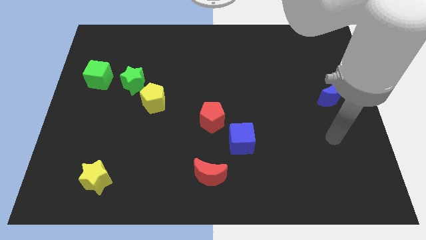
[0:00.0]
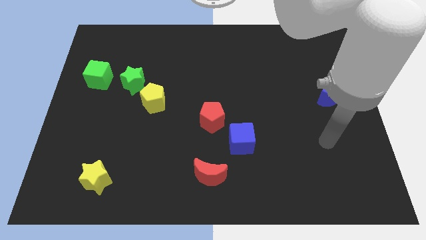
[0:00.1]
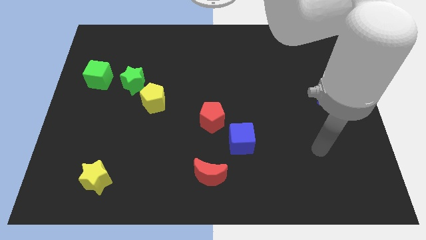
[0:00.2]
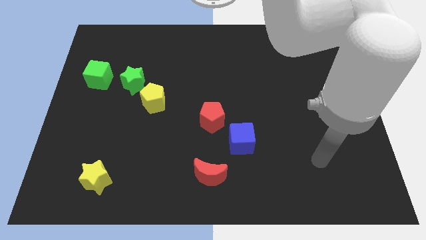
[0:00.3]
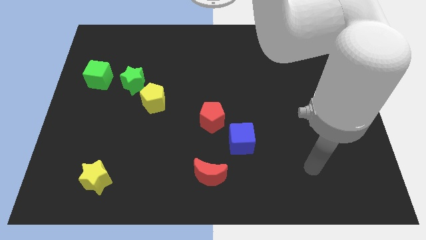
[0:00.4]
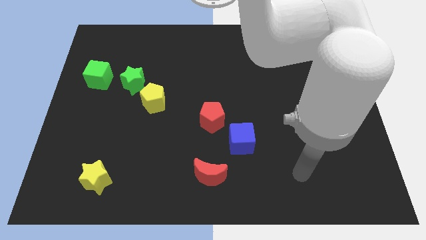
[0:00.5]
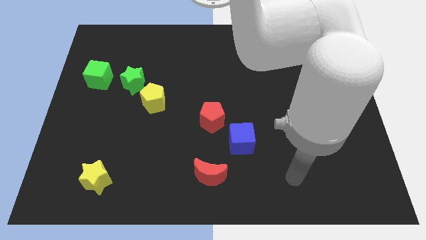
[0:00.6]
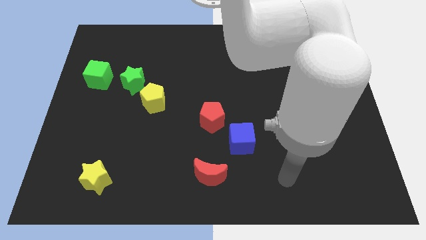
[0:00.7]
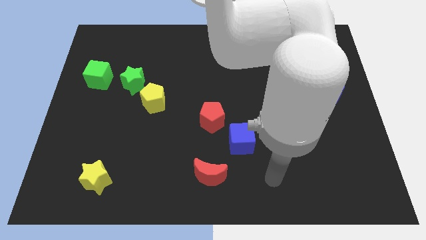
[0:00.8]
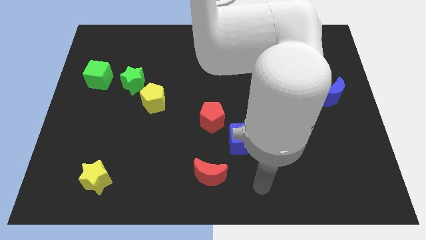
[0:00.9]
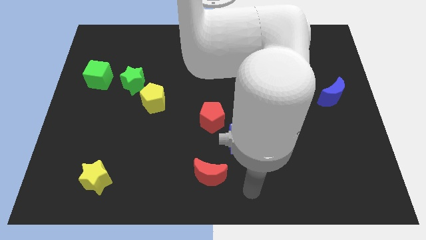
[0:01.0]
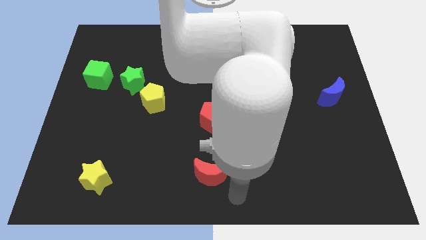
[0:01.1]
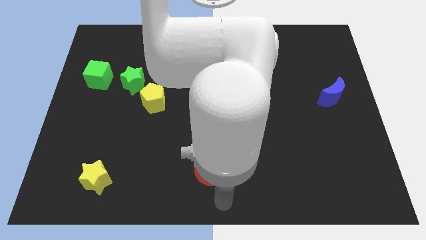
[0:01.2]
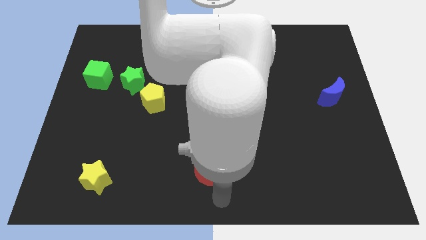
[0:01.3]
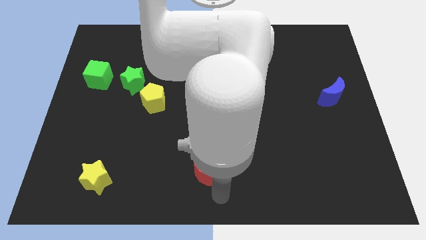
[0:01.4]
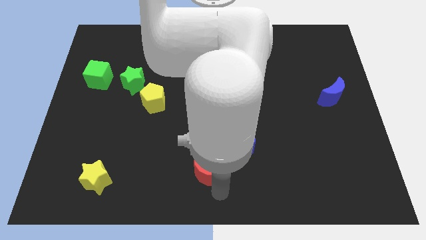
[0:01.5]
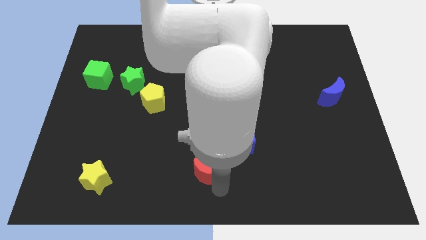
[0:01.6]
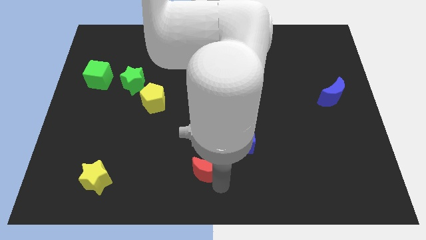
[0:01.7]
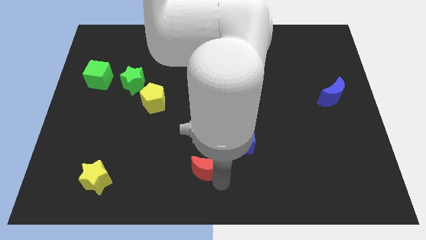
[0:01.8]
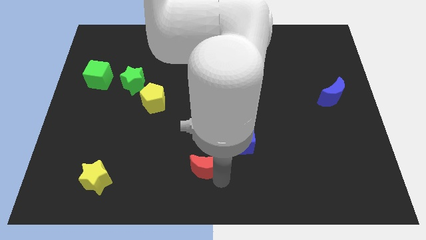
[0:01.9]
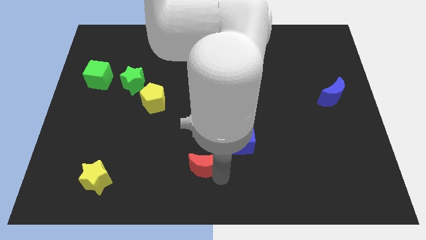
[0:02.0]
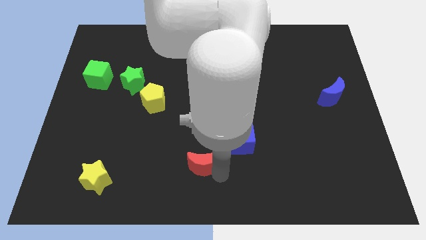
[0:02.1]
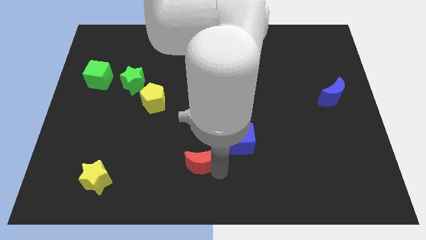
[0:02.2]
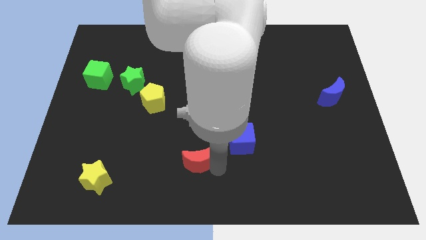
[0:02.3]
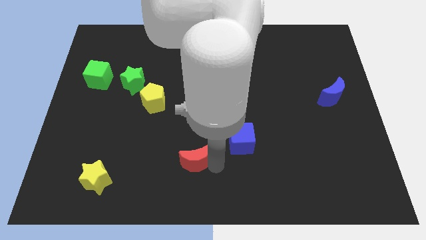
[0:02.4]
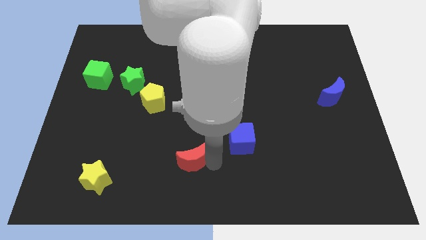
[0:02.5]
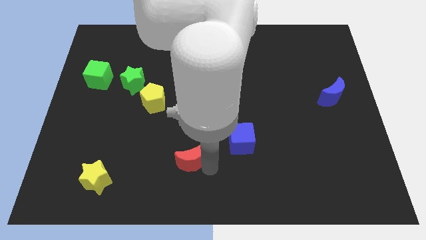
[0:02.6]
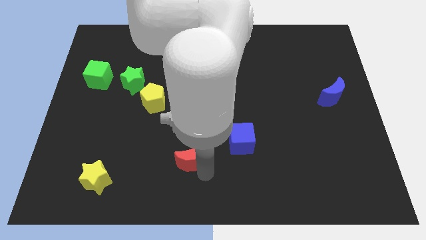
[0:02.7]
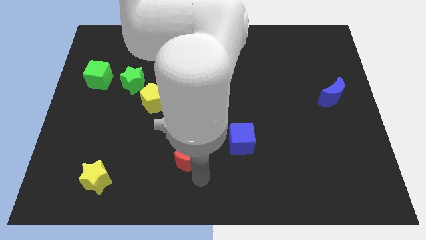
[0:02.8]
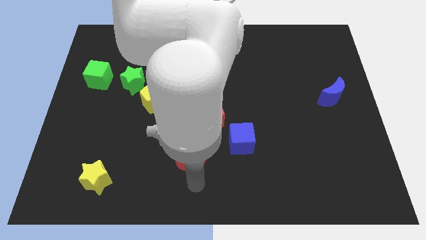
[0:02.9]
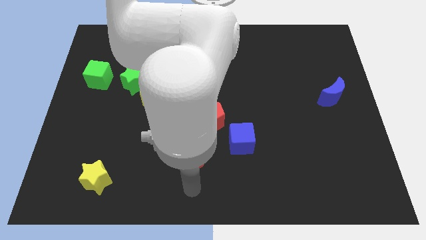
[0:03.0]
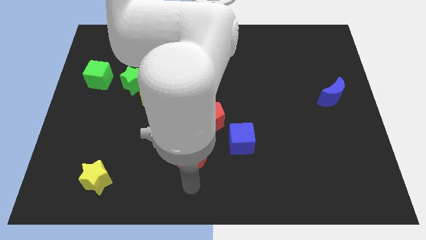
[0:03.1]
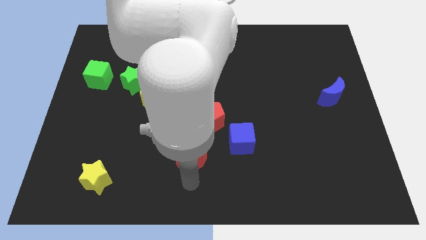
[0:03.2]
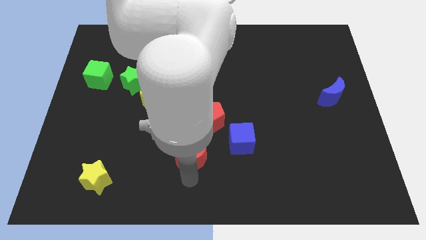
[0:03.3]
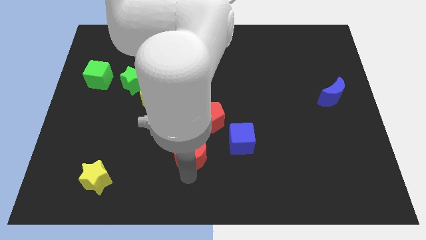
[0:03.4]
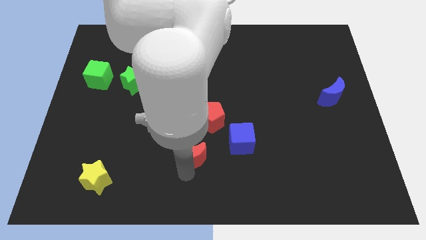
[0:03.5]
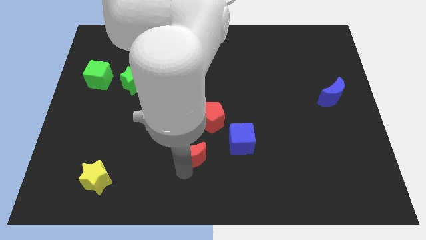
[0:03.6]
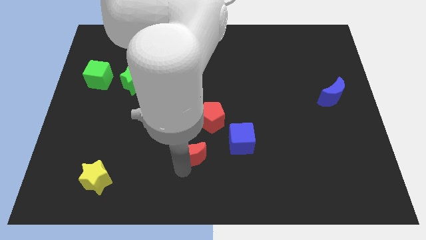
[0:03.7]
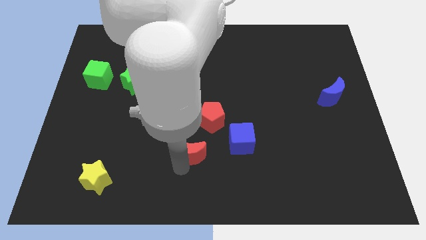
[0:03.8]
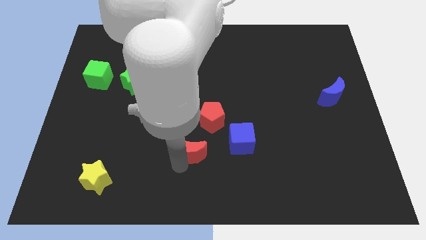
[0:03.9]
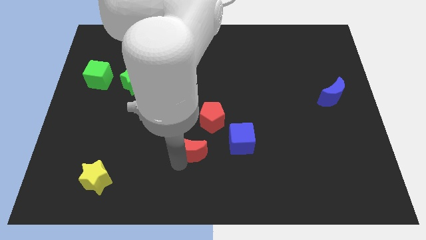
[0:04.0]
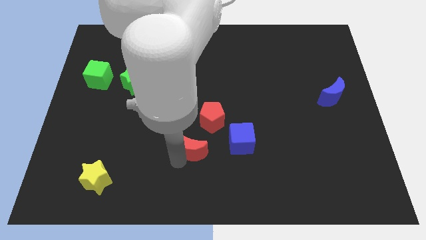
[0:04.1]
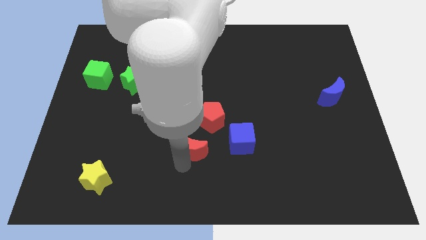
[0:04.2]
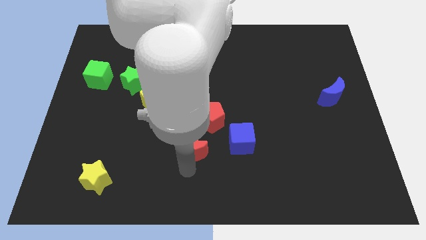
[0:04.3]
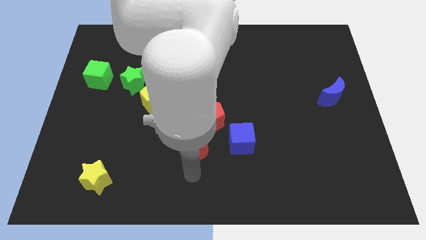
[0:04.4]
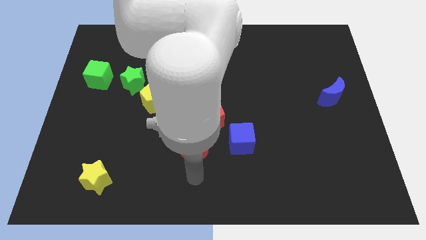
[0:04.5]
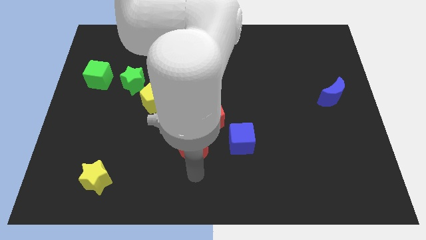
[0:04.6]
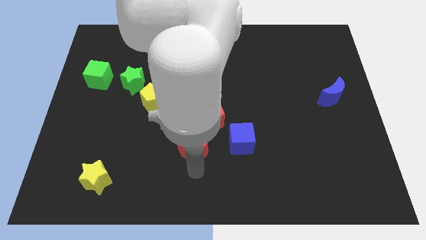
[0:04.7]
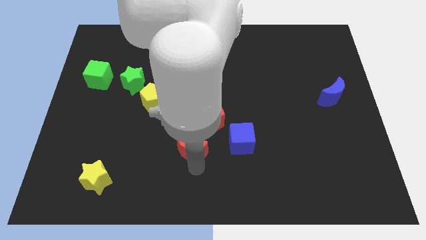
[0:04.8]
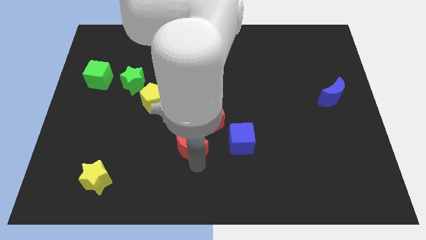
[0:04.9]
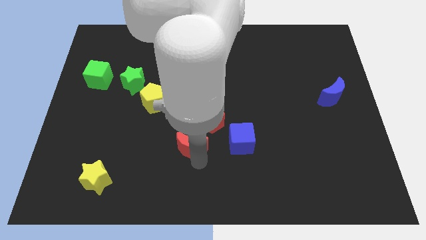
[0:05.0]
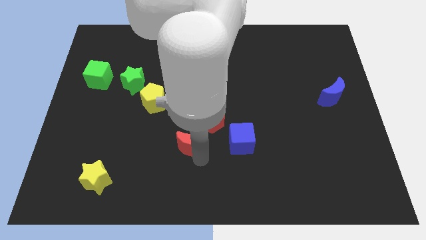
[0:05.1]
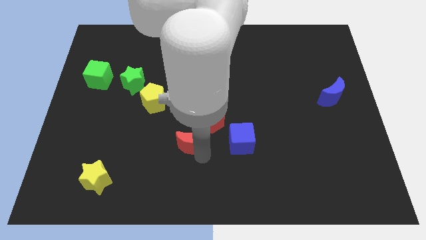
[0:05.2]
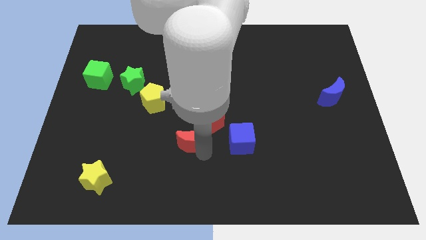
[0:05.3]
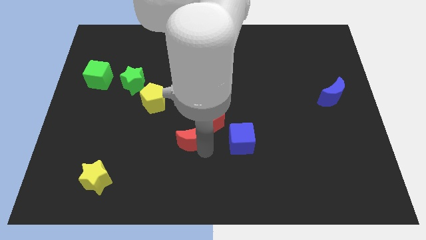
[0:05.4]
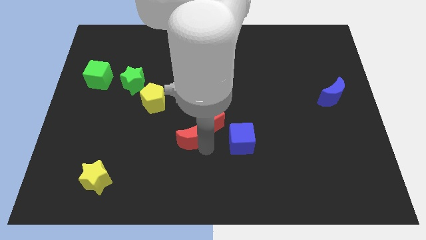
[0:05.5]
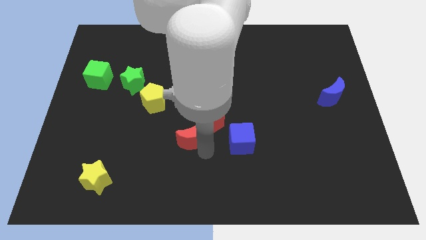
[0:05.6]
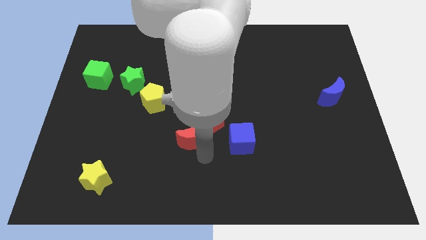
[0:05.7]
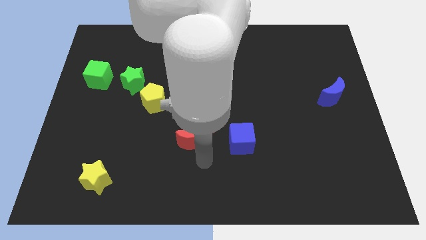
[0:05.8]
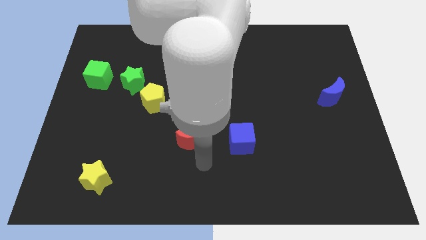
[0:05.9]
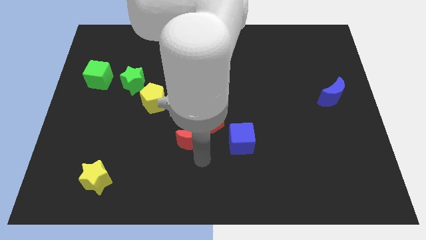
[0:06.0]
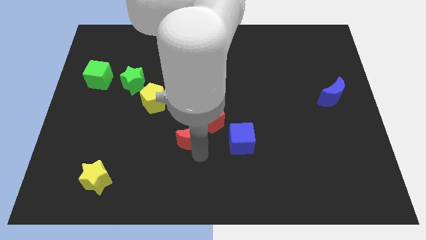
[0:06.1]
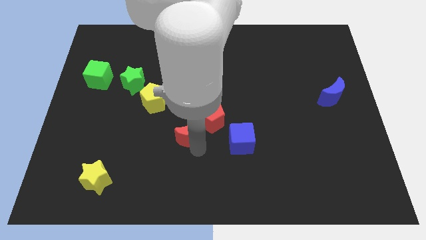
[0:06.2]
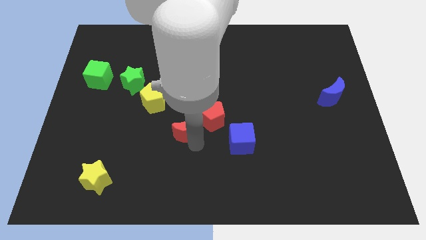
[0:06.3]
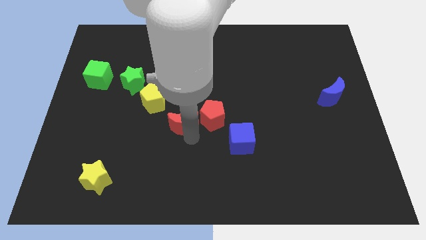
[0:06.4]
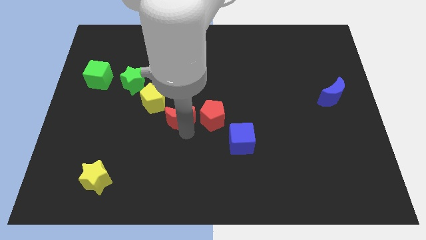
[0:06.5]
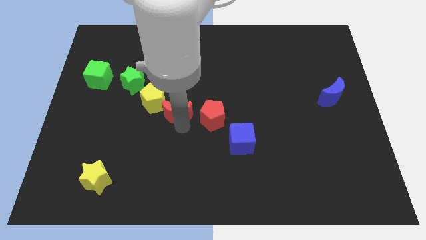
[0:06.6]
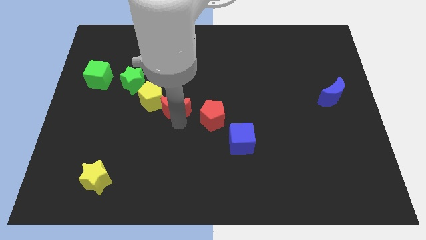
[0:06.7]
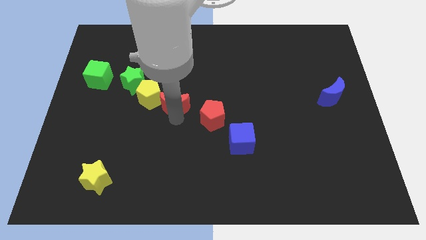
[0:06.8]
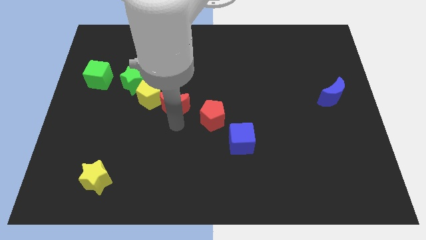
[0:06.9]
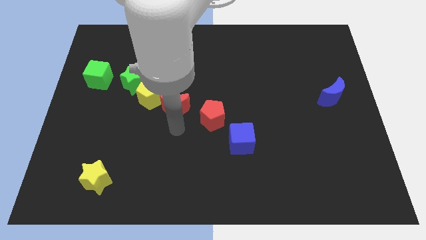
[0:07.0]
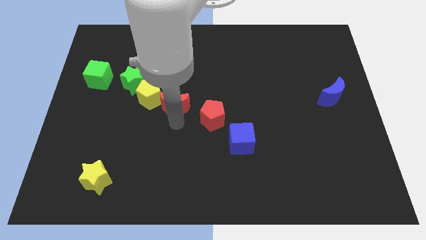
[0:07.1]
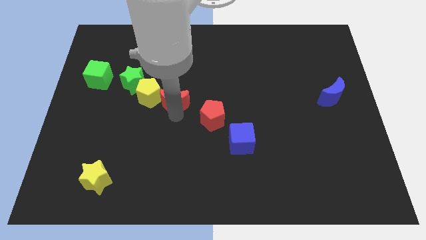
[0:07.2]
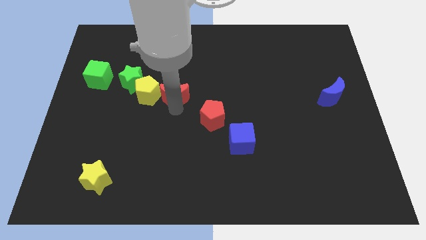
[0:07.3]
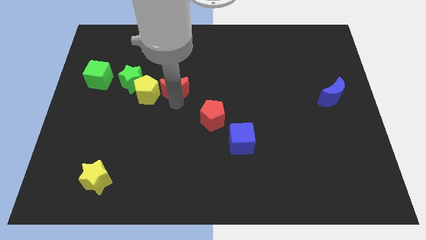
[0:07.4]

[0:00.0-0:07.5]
move the red moon diagonally up and to the right of the yellow pentagon
